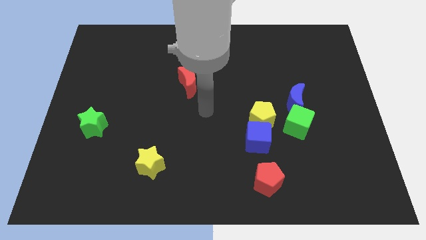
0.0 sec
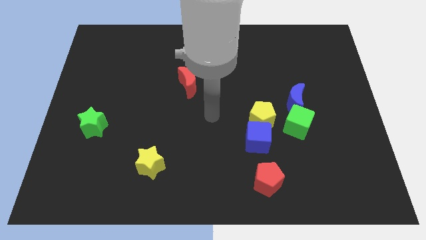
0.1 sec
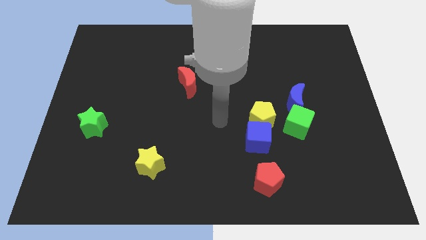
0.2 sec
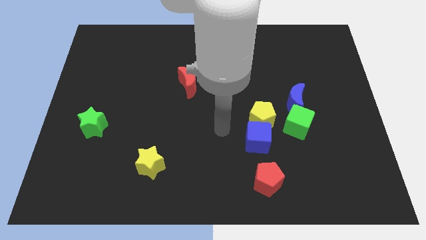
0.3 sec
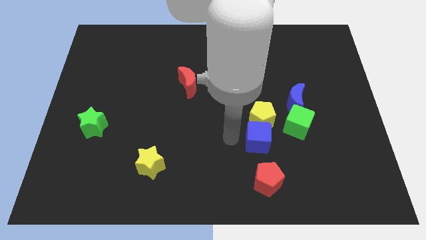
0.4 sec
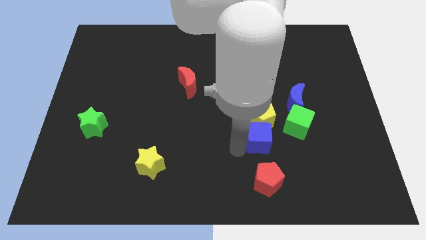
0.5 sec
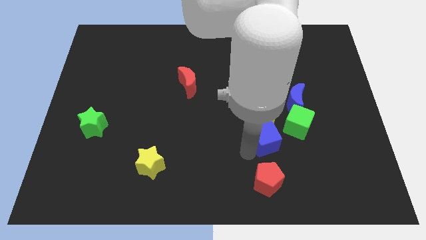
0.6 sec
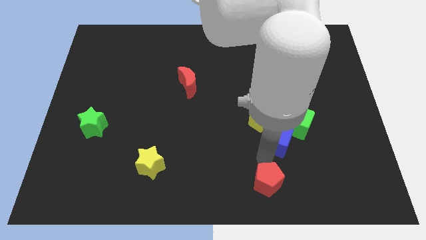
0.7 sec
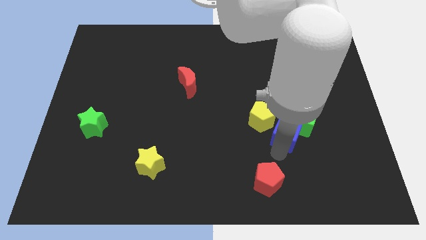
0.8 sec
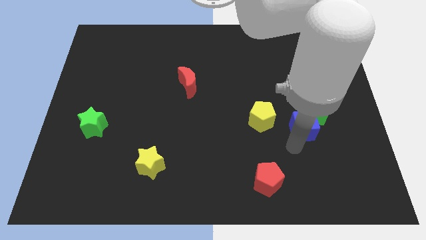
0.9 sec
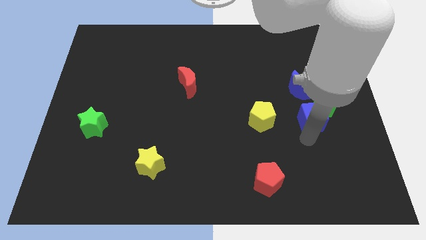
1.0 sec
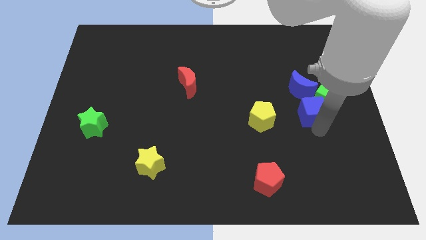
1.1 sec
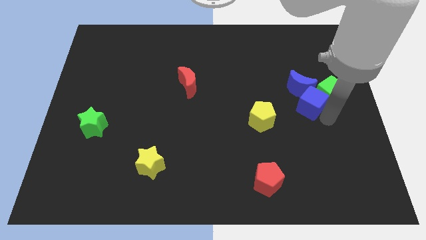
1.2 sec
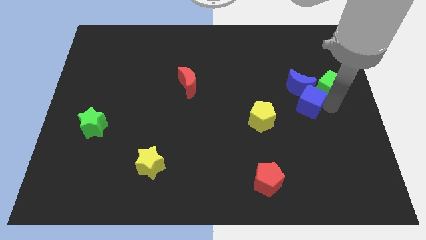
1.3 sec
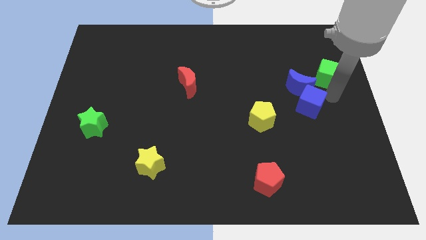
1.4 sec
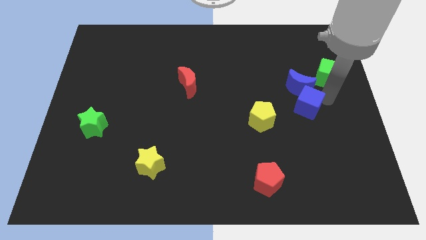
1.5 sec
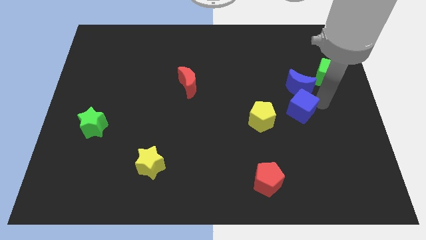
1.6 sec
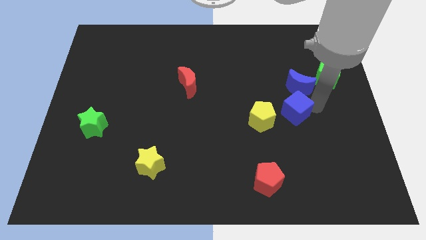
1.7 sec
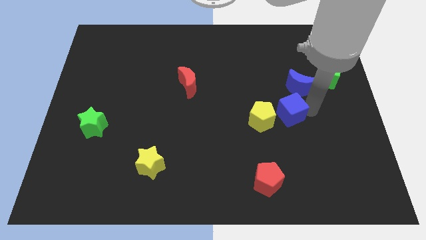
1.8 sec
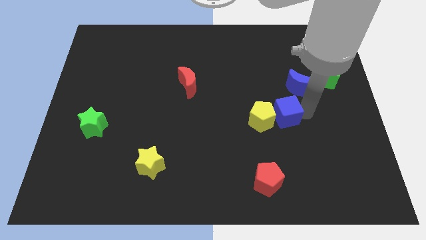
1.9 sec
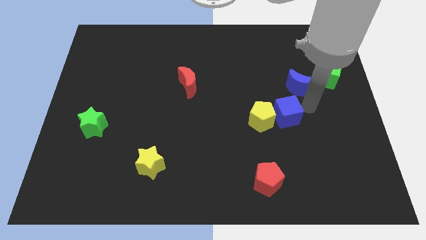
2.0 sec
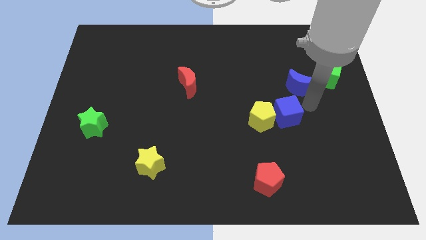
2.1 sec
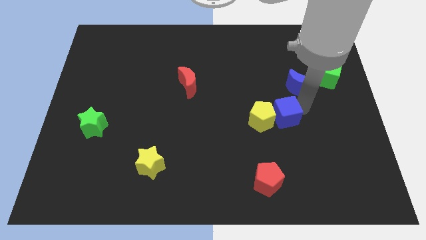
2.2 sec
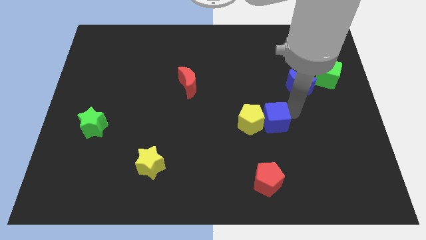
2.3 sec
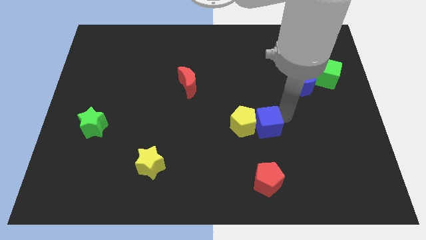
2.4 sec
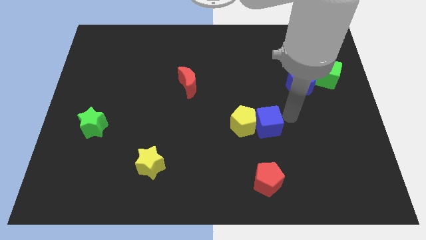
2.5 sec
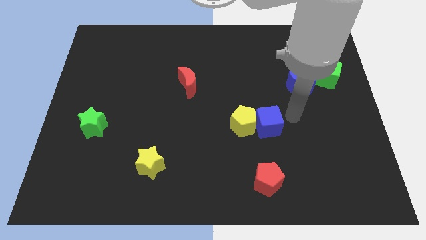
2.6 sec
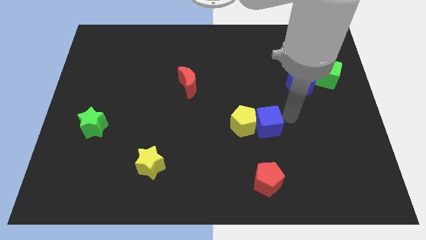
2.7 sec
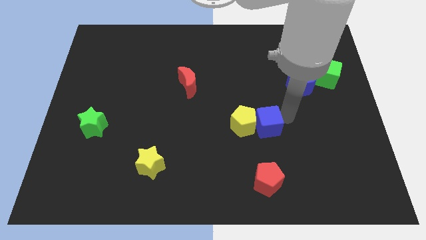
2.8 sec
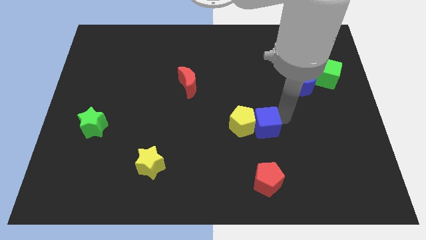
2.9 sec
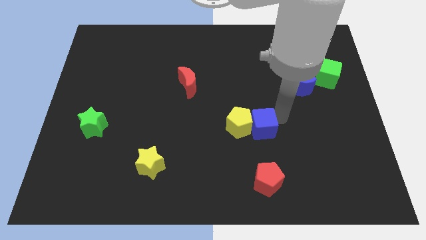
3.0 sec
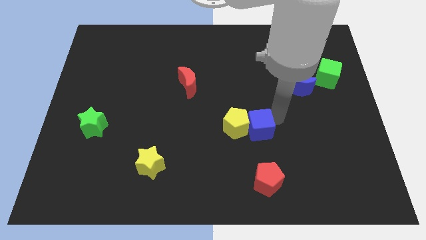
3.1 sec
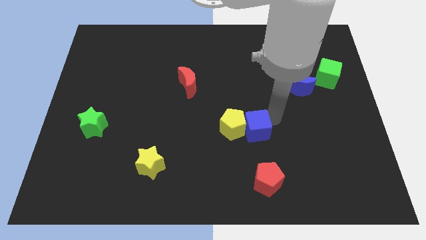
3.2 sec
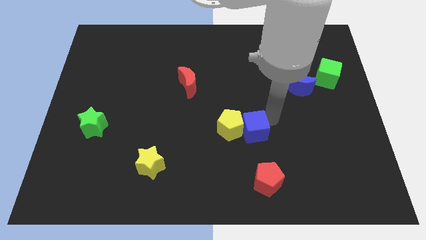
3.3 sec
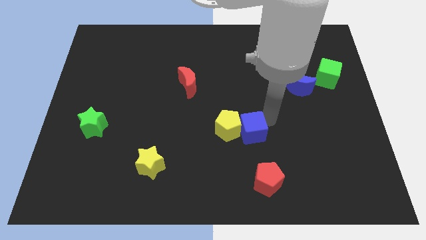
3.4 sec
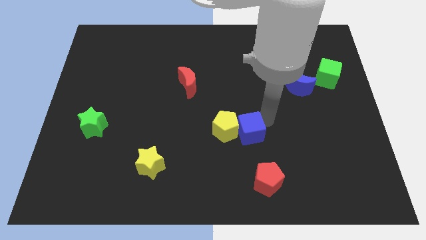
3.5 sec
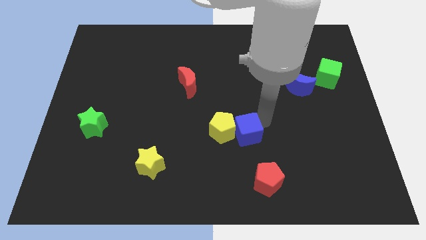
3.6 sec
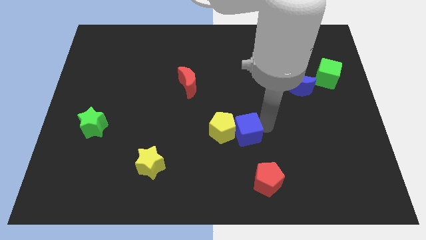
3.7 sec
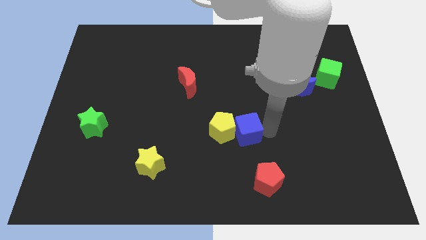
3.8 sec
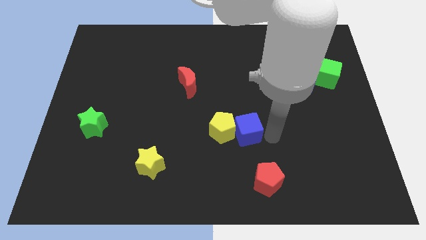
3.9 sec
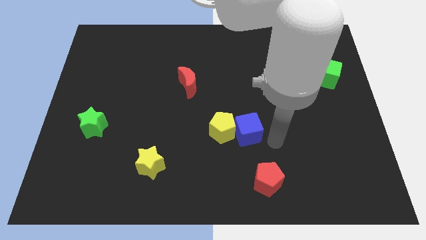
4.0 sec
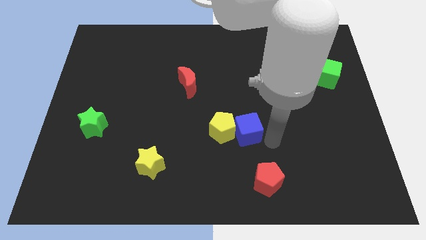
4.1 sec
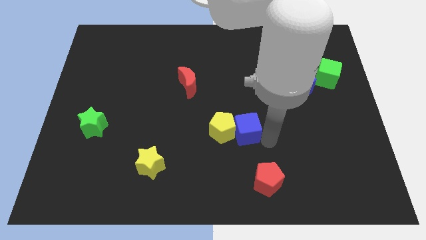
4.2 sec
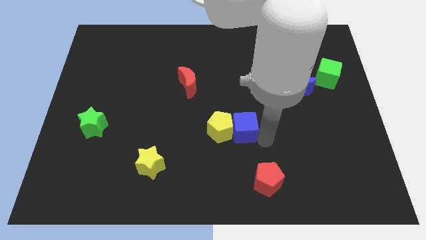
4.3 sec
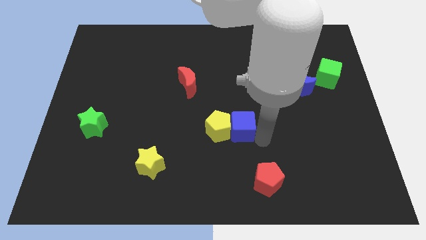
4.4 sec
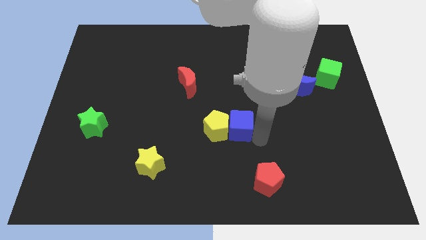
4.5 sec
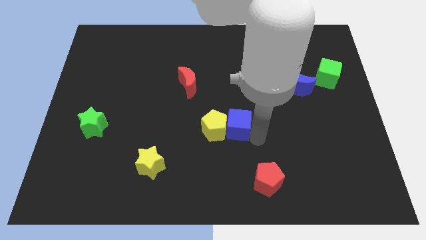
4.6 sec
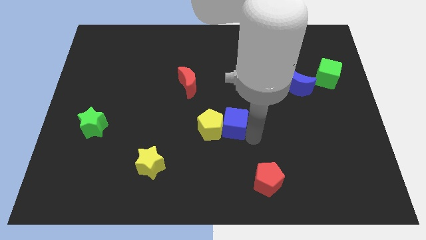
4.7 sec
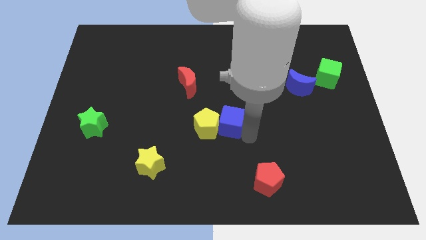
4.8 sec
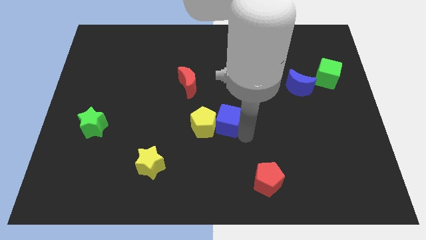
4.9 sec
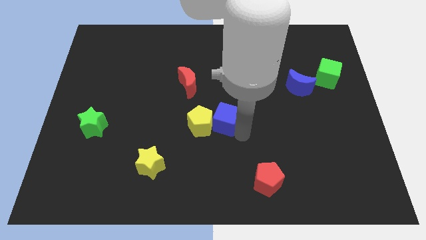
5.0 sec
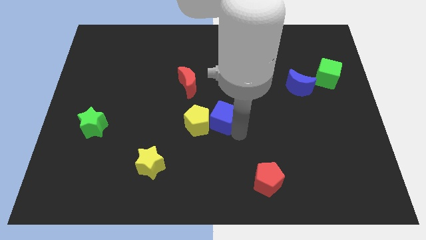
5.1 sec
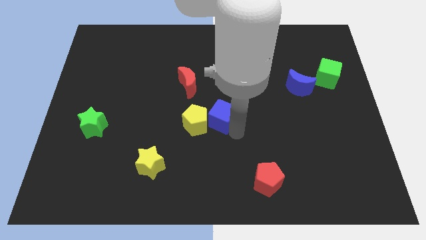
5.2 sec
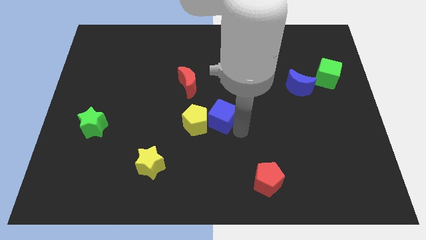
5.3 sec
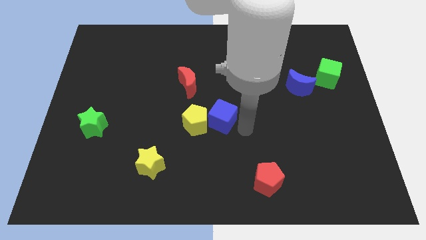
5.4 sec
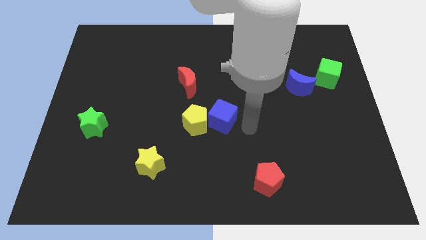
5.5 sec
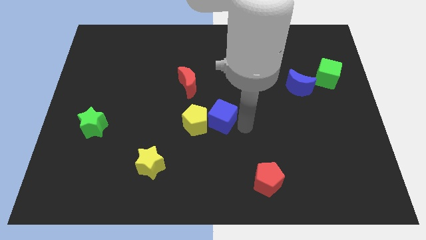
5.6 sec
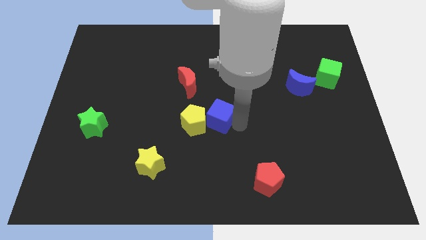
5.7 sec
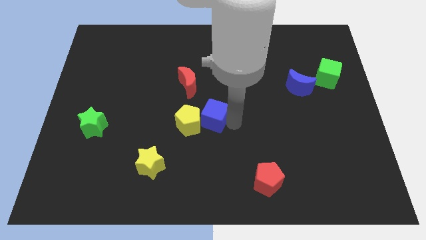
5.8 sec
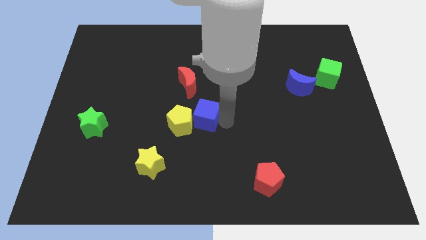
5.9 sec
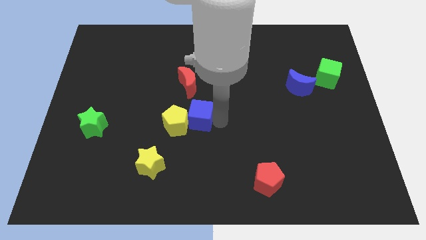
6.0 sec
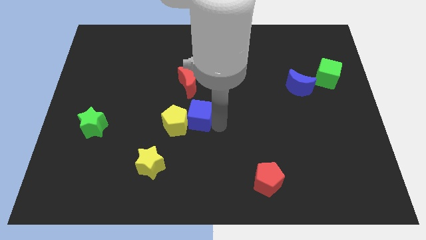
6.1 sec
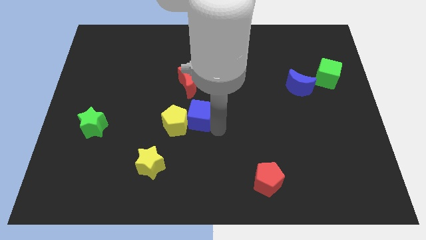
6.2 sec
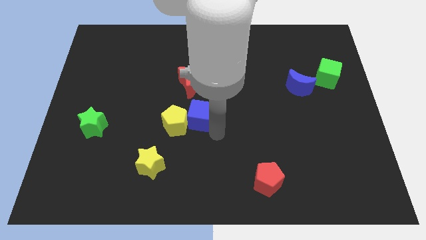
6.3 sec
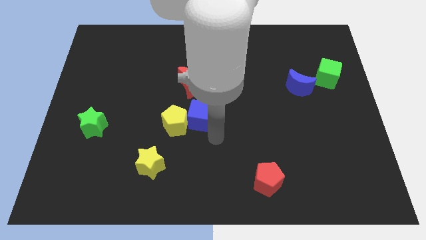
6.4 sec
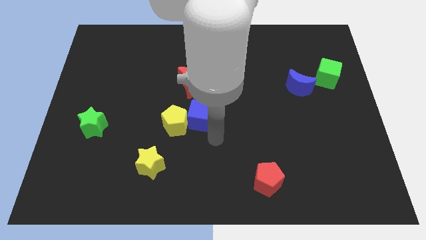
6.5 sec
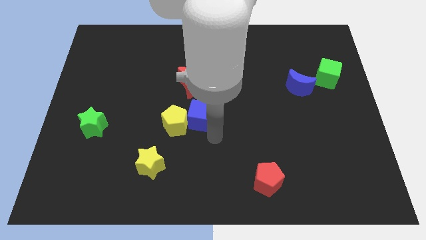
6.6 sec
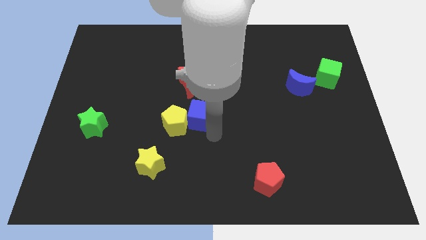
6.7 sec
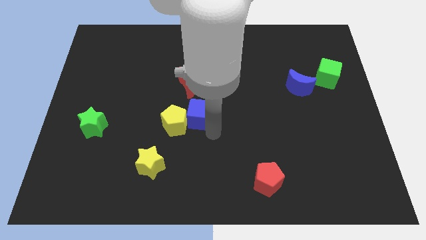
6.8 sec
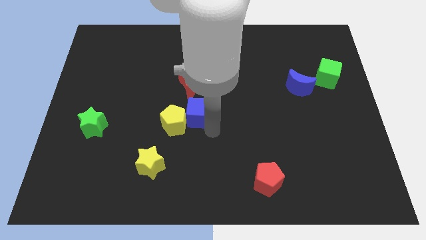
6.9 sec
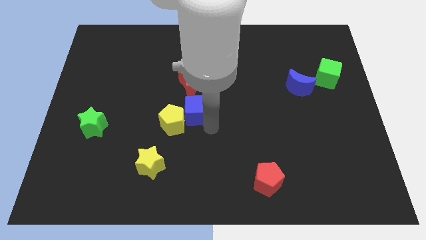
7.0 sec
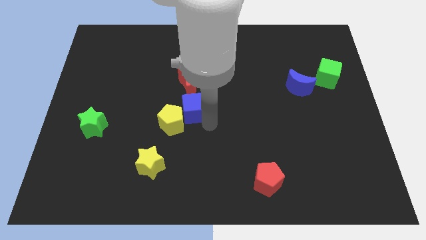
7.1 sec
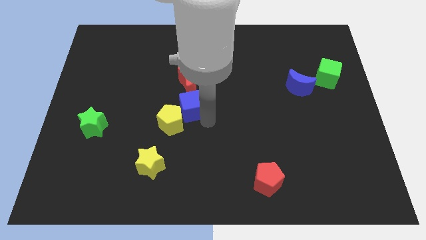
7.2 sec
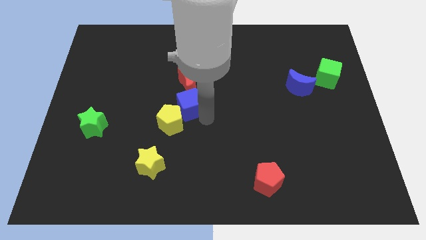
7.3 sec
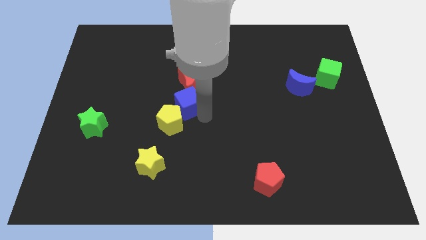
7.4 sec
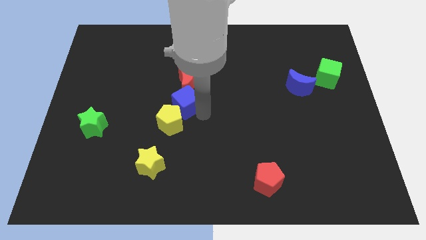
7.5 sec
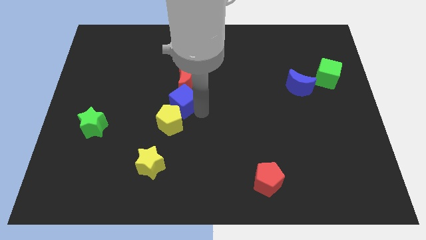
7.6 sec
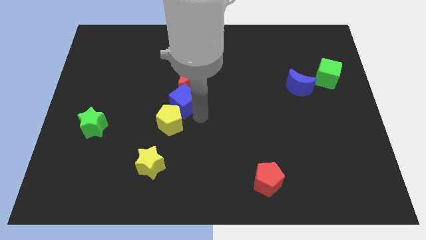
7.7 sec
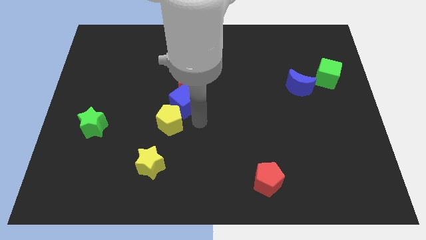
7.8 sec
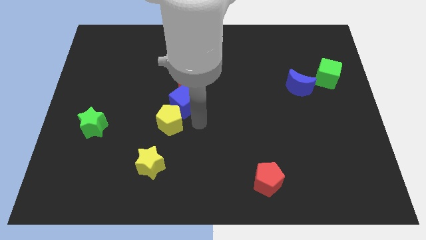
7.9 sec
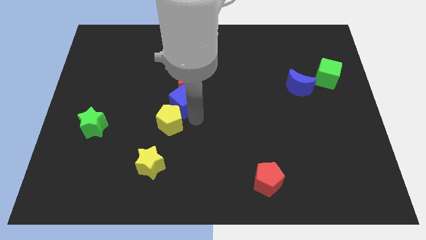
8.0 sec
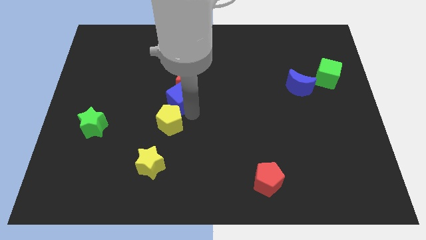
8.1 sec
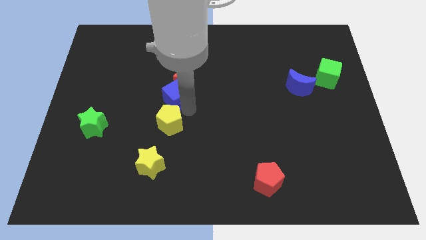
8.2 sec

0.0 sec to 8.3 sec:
slide the blue cube up and left diagonally
